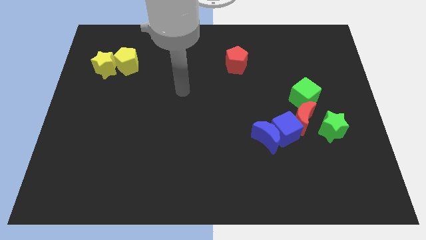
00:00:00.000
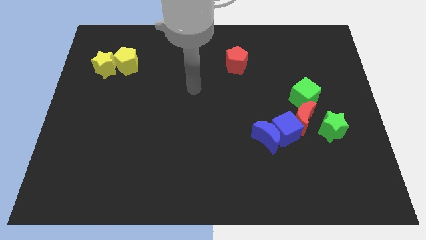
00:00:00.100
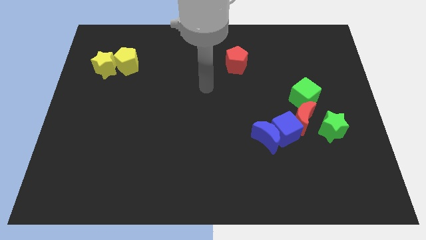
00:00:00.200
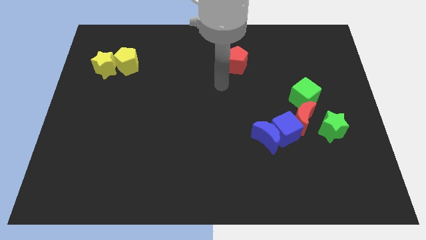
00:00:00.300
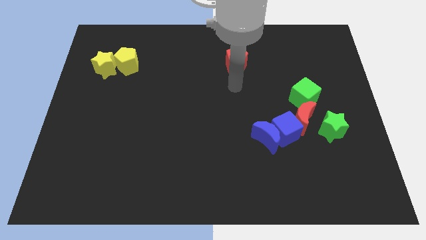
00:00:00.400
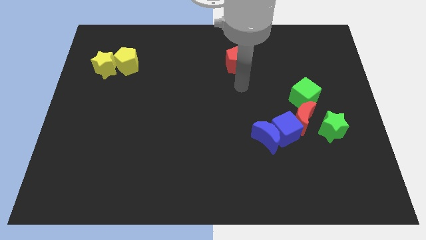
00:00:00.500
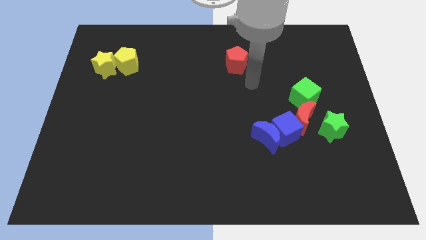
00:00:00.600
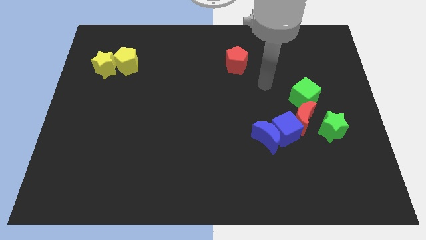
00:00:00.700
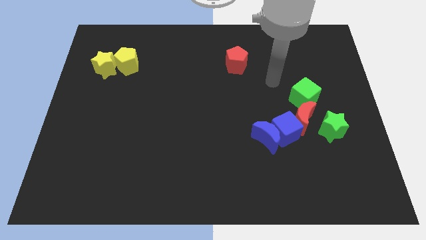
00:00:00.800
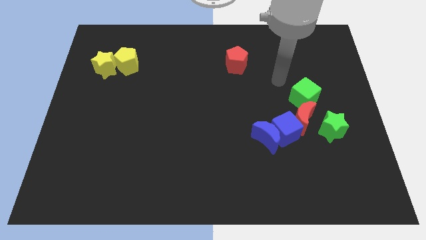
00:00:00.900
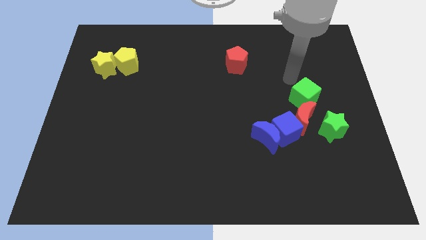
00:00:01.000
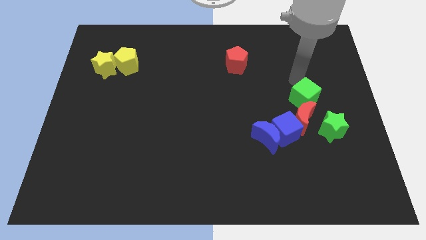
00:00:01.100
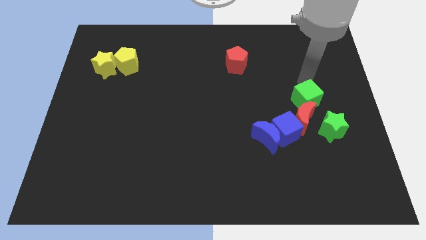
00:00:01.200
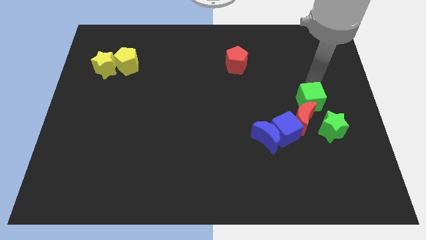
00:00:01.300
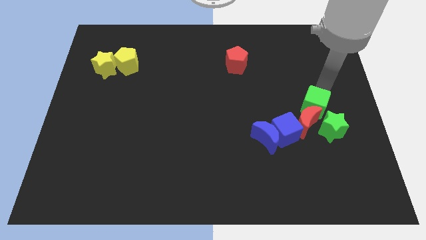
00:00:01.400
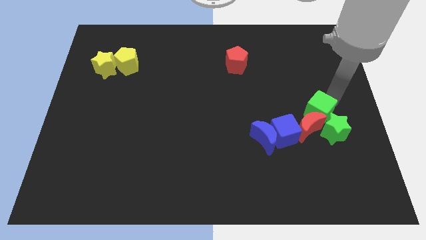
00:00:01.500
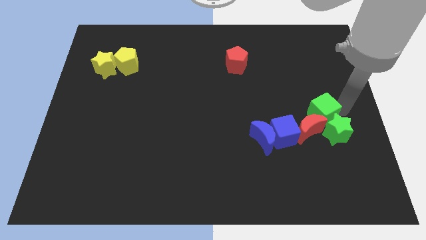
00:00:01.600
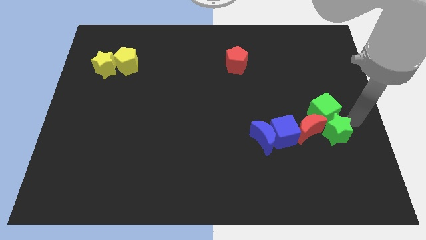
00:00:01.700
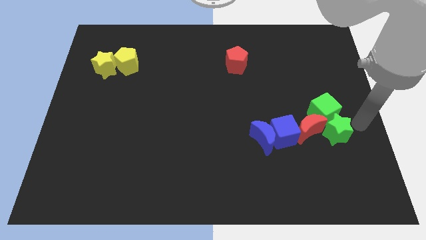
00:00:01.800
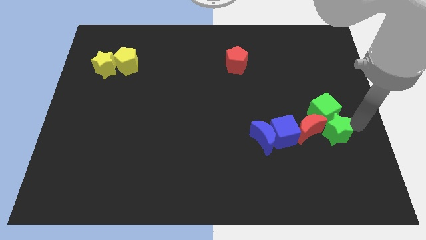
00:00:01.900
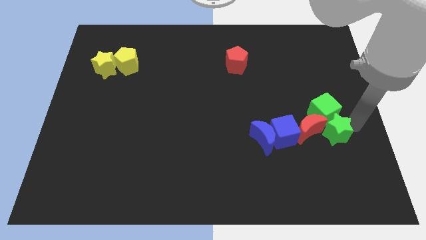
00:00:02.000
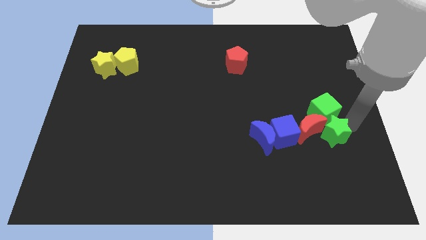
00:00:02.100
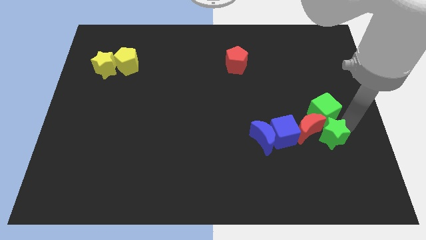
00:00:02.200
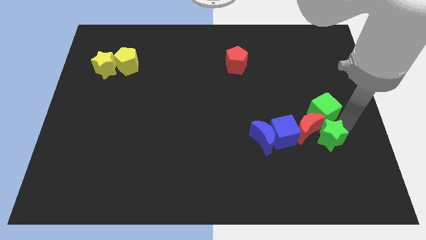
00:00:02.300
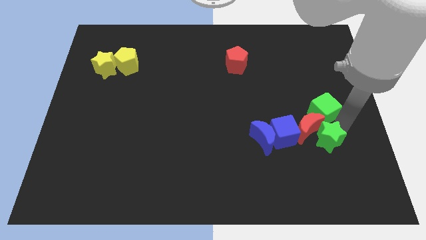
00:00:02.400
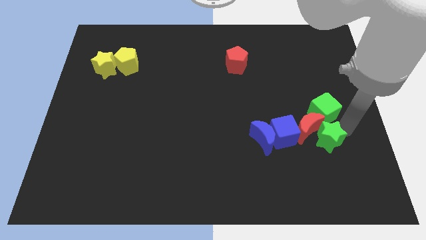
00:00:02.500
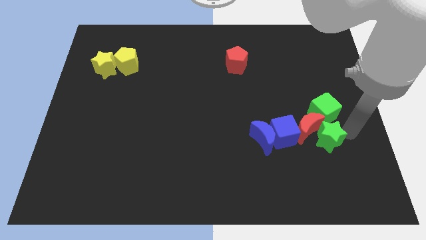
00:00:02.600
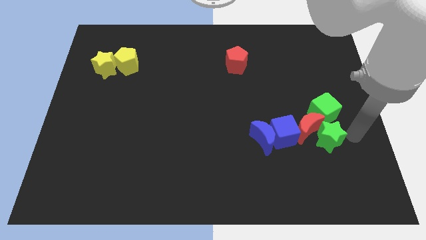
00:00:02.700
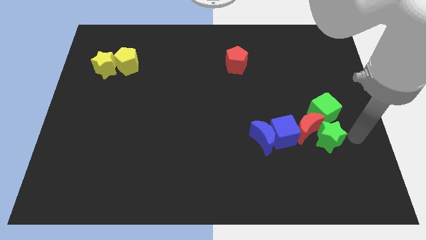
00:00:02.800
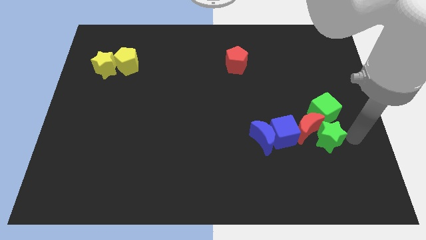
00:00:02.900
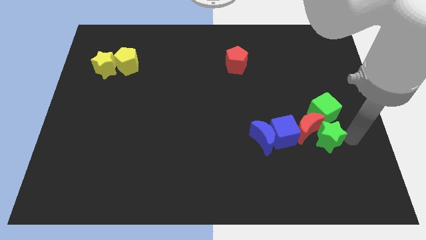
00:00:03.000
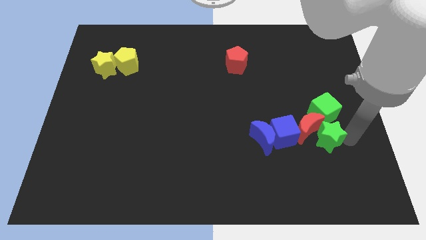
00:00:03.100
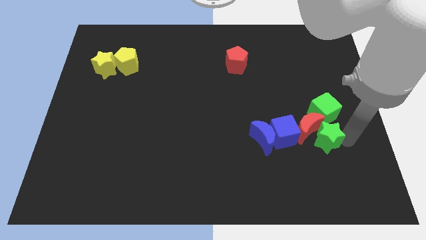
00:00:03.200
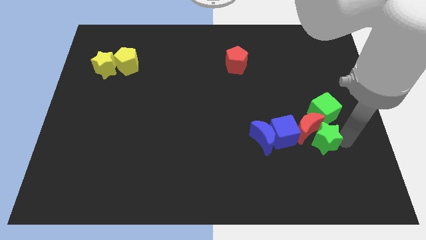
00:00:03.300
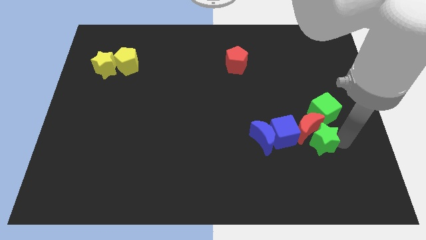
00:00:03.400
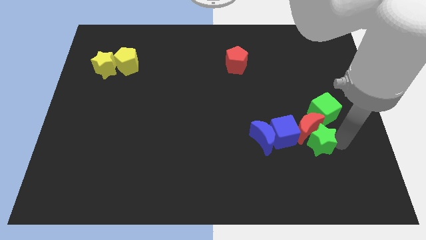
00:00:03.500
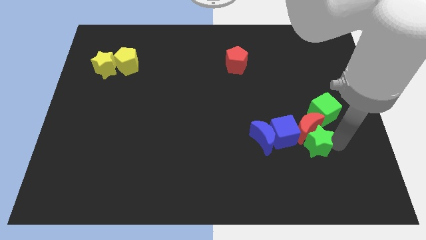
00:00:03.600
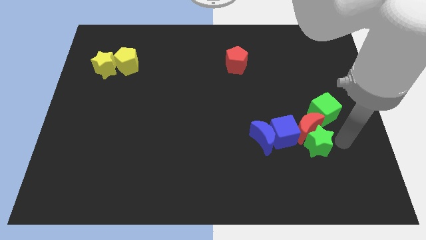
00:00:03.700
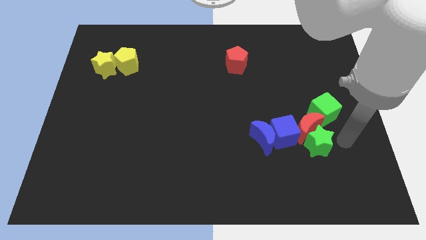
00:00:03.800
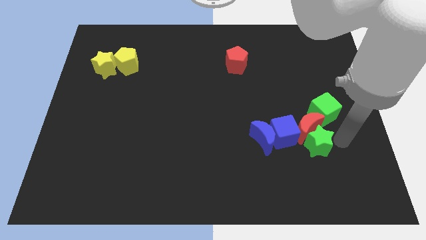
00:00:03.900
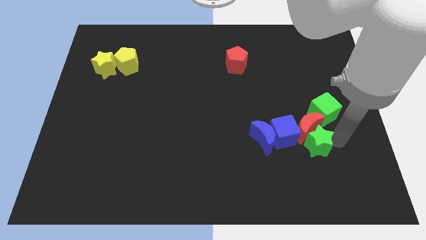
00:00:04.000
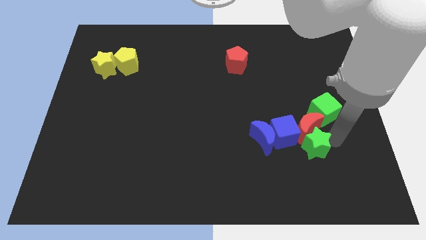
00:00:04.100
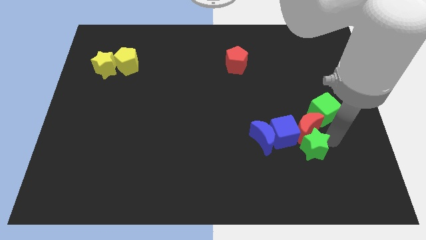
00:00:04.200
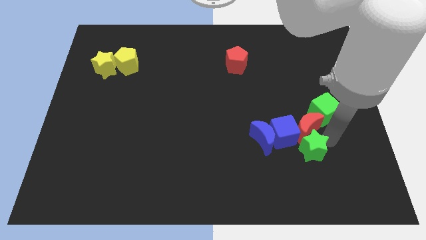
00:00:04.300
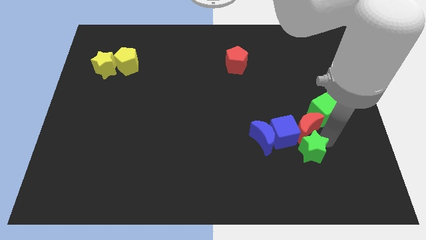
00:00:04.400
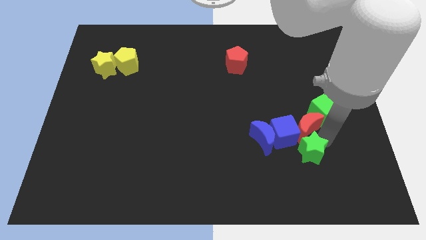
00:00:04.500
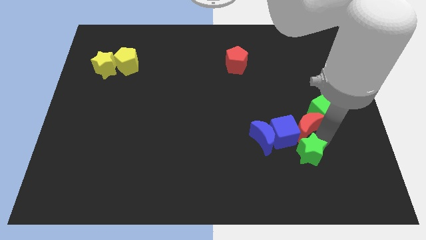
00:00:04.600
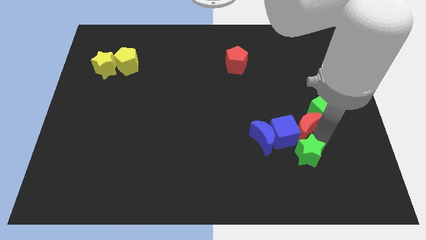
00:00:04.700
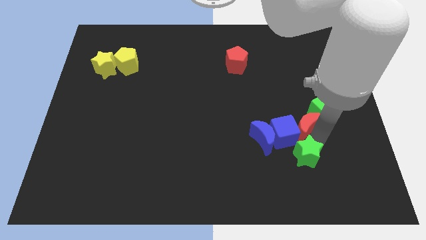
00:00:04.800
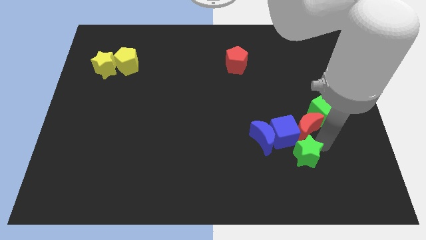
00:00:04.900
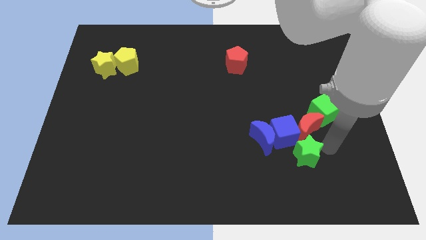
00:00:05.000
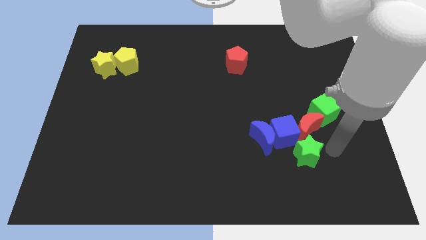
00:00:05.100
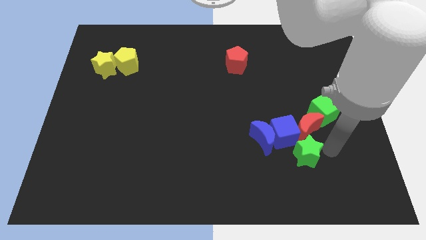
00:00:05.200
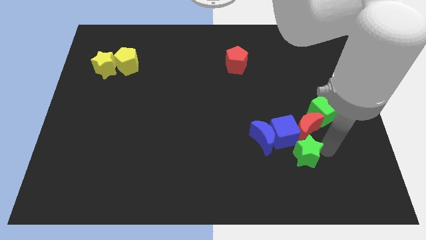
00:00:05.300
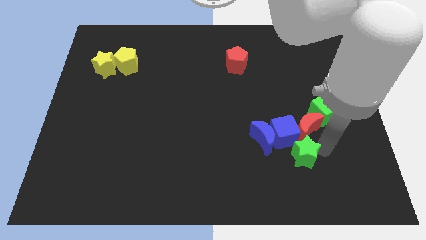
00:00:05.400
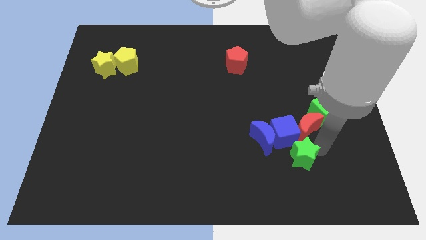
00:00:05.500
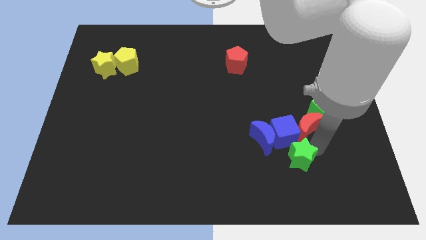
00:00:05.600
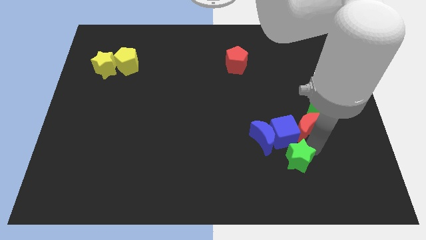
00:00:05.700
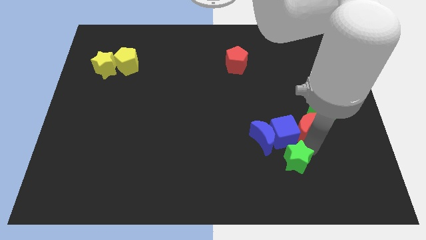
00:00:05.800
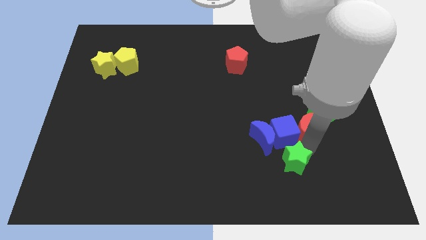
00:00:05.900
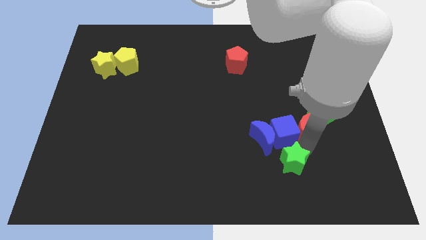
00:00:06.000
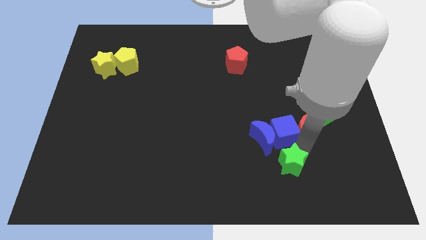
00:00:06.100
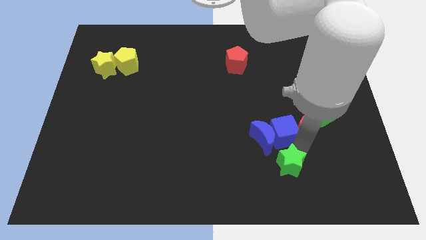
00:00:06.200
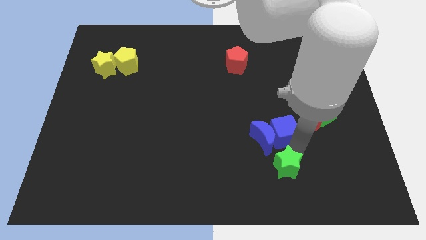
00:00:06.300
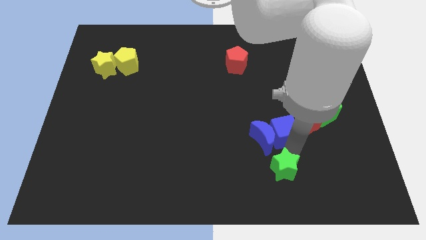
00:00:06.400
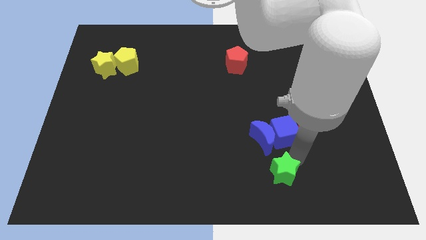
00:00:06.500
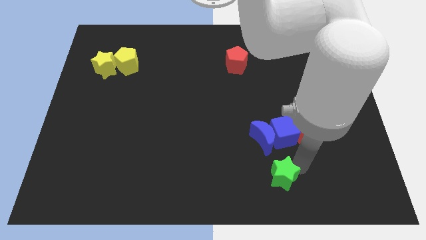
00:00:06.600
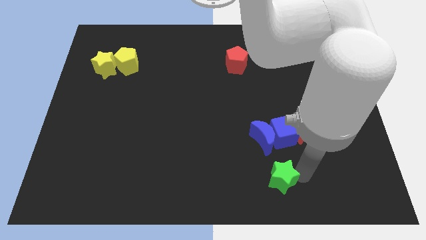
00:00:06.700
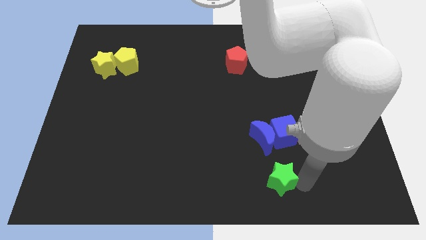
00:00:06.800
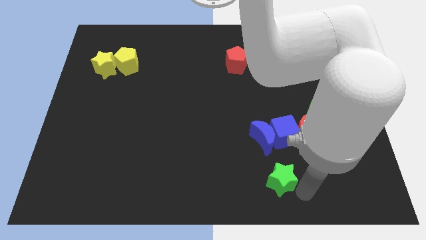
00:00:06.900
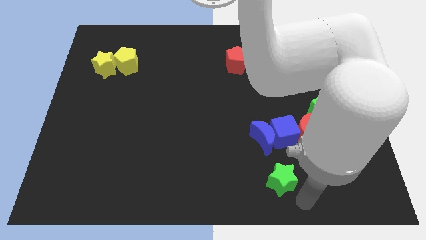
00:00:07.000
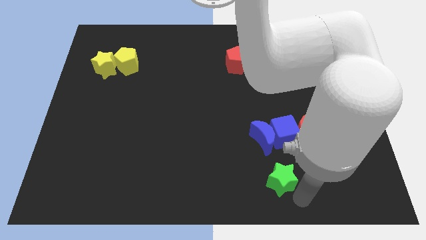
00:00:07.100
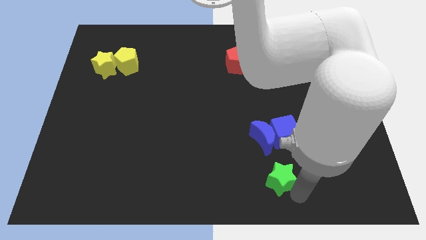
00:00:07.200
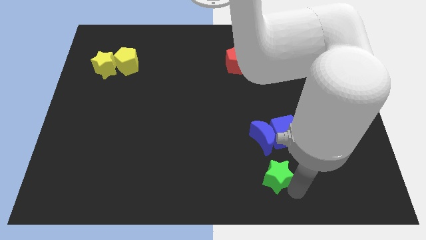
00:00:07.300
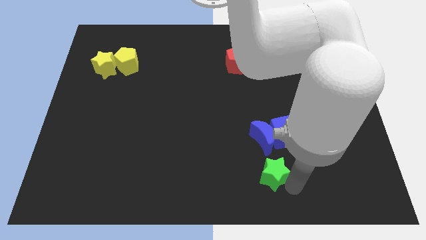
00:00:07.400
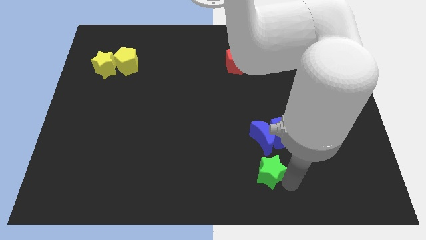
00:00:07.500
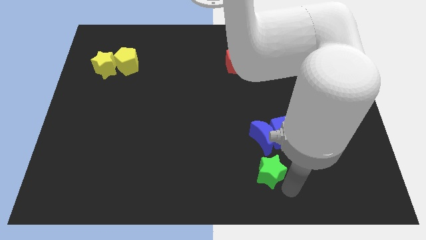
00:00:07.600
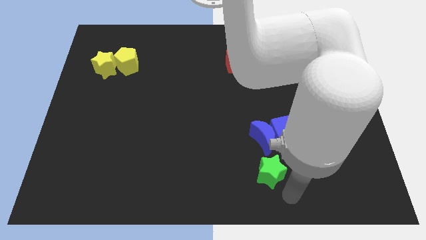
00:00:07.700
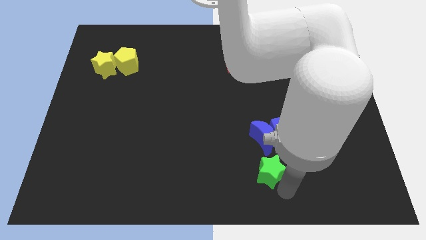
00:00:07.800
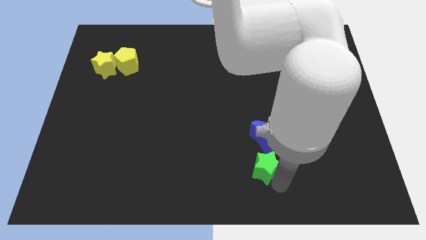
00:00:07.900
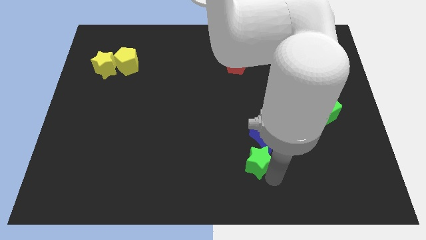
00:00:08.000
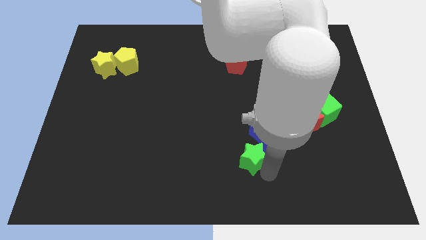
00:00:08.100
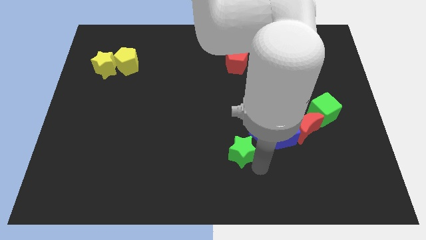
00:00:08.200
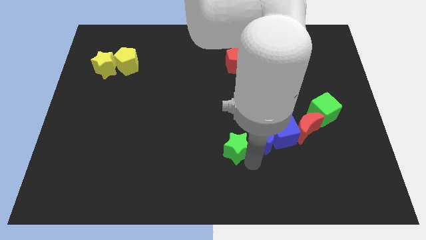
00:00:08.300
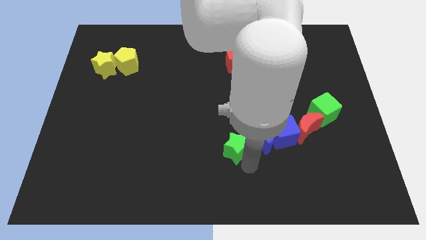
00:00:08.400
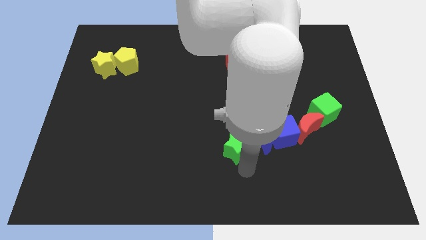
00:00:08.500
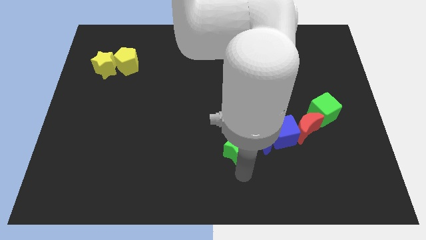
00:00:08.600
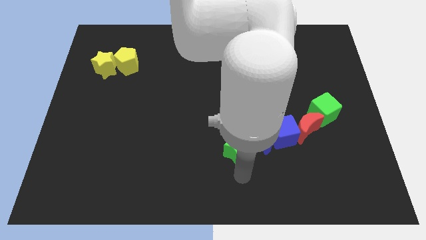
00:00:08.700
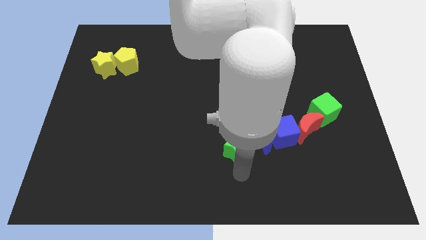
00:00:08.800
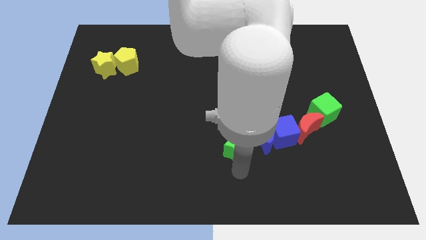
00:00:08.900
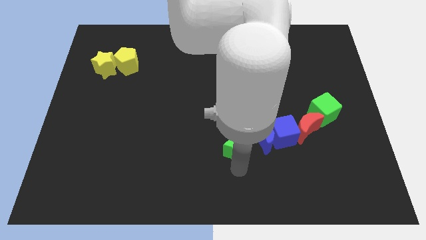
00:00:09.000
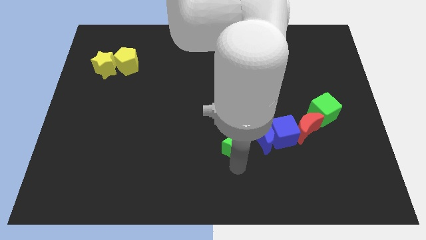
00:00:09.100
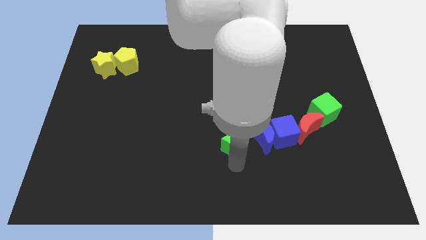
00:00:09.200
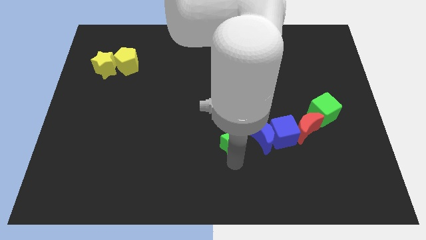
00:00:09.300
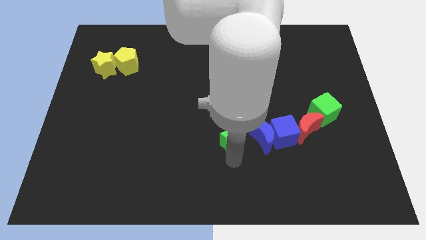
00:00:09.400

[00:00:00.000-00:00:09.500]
slide the green star to the center of the board
